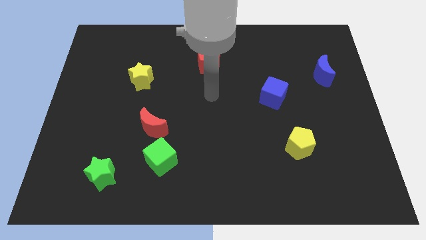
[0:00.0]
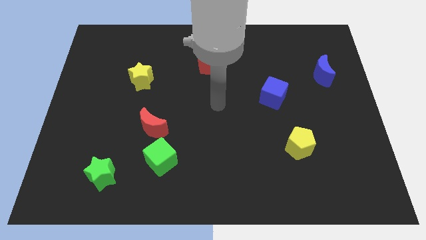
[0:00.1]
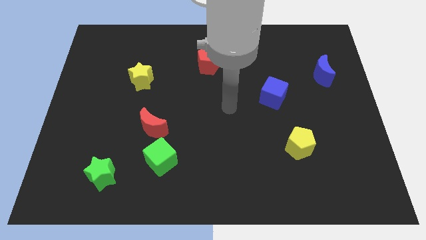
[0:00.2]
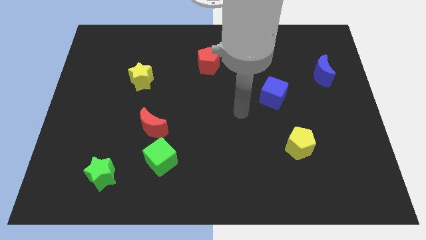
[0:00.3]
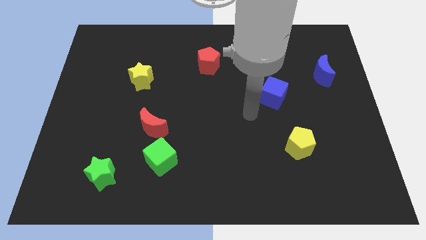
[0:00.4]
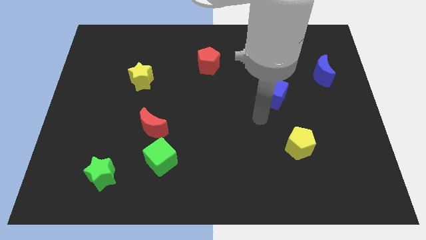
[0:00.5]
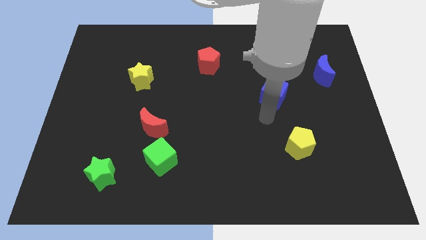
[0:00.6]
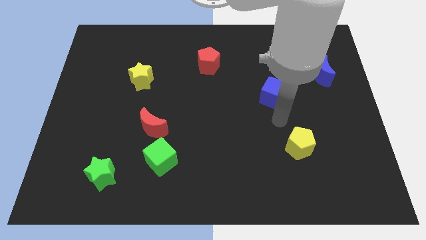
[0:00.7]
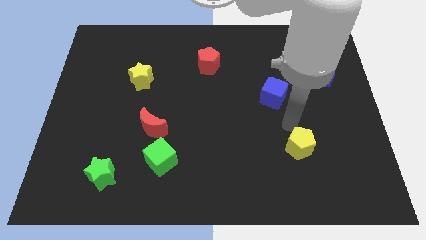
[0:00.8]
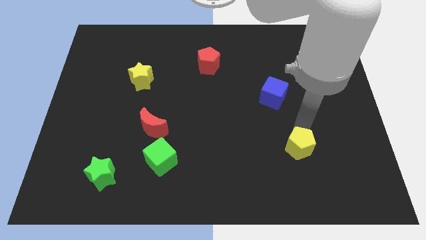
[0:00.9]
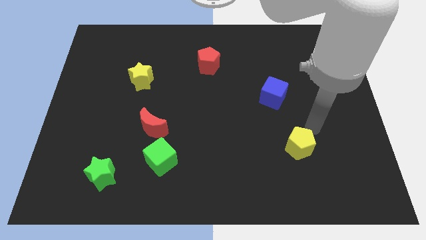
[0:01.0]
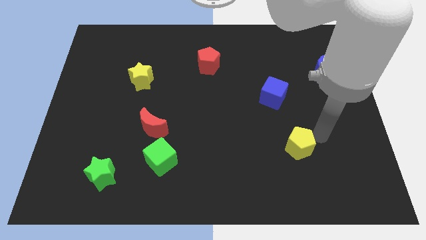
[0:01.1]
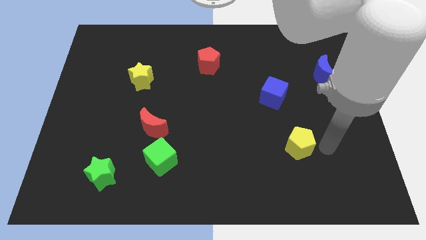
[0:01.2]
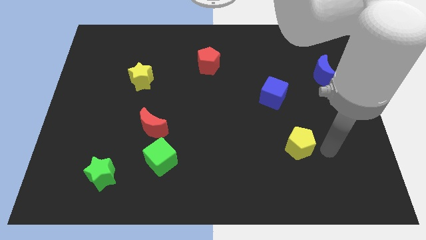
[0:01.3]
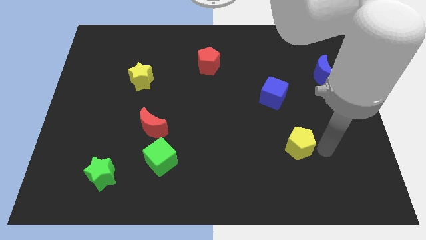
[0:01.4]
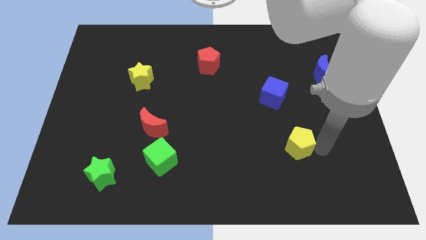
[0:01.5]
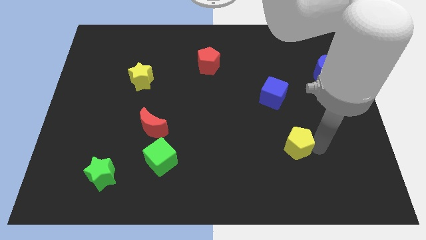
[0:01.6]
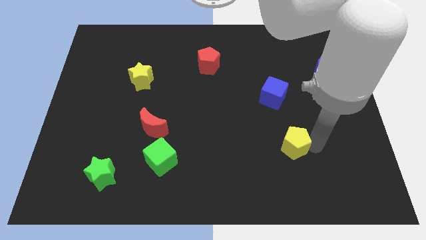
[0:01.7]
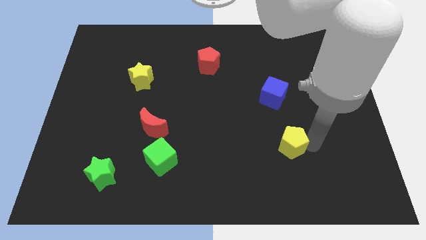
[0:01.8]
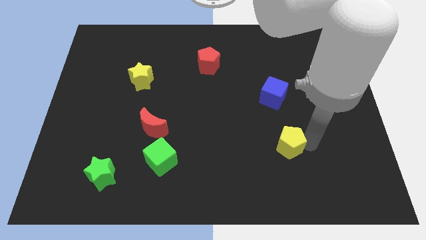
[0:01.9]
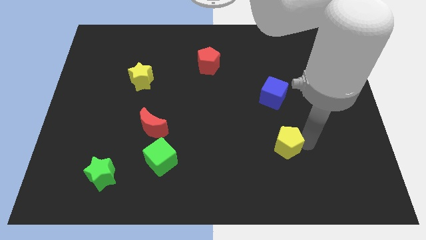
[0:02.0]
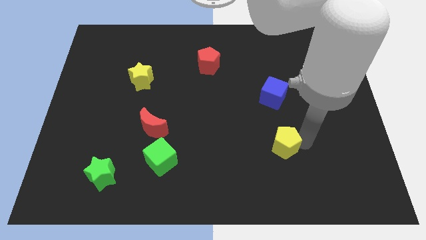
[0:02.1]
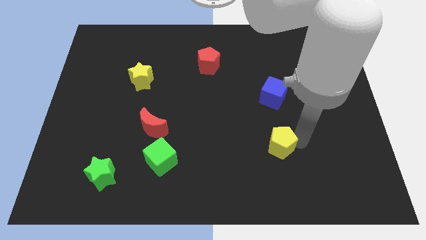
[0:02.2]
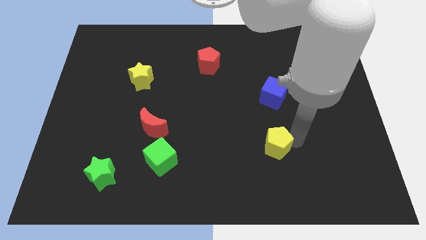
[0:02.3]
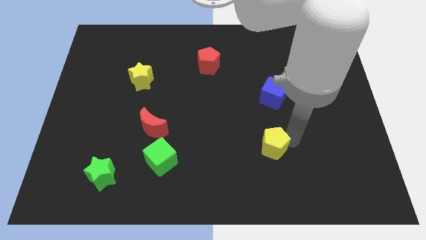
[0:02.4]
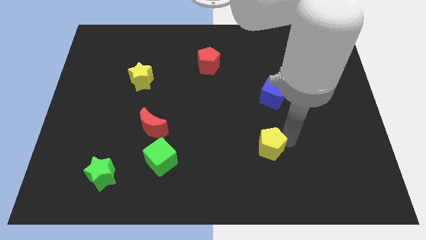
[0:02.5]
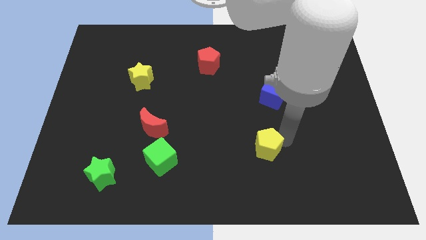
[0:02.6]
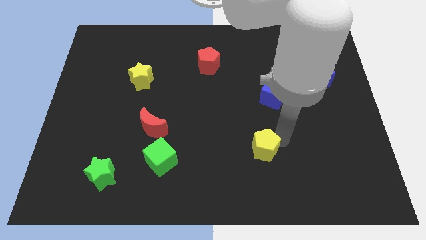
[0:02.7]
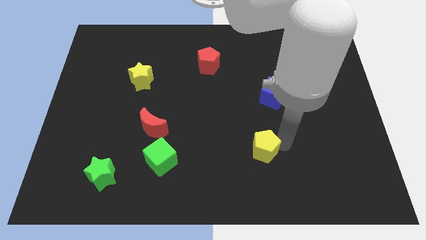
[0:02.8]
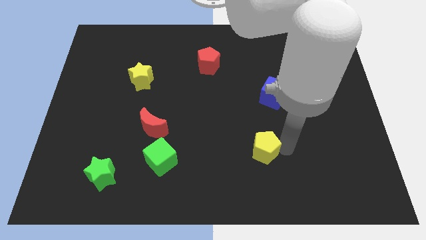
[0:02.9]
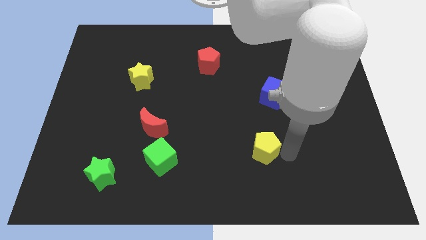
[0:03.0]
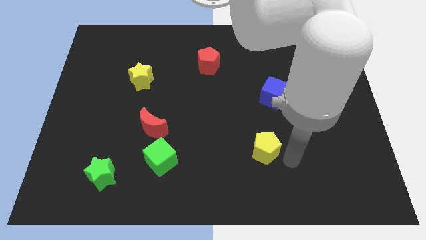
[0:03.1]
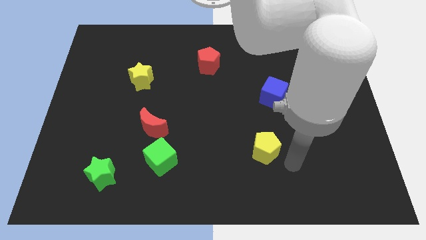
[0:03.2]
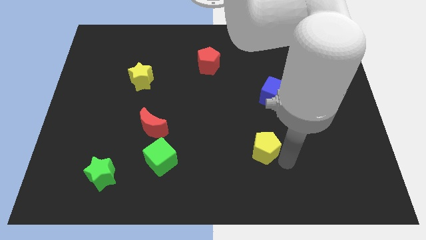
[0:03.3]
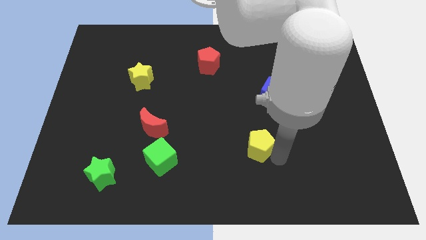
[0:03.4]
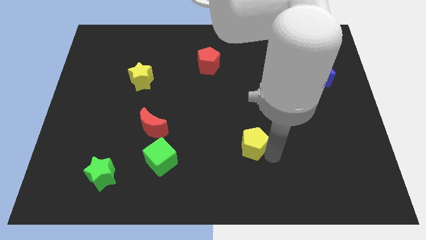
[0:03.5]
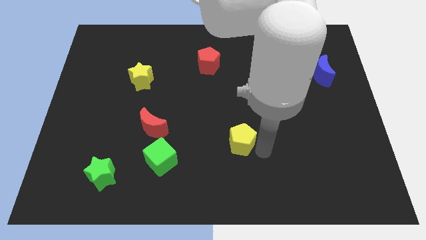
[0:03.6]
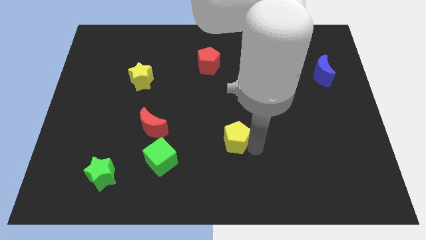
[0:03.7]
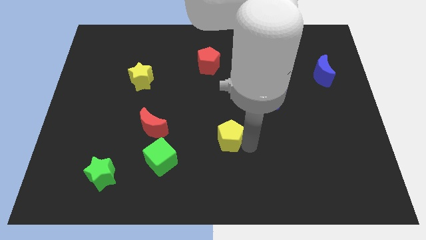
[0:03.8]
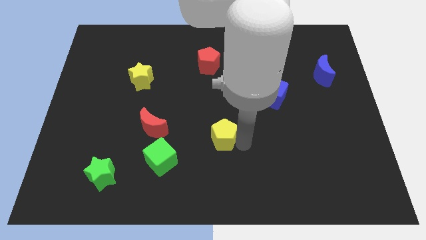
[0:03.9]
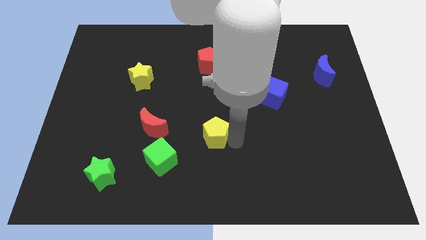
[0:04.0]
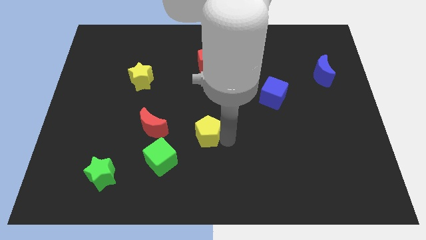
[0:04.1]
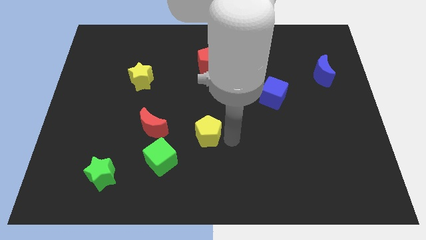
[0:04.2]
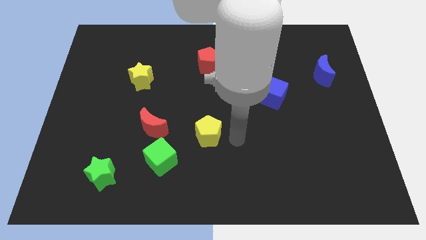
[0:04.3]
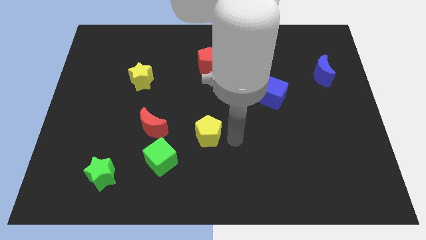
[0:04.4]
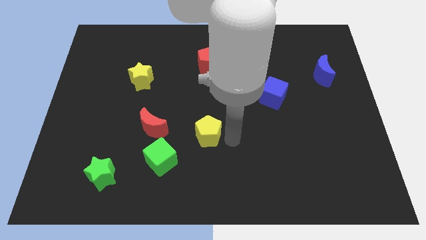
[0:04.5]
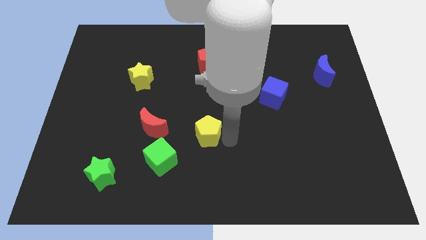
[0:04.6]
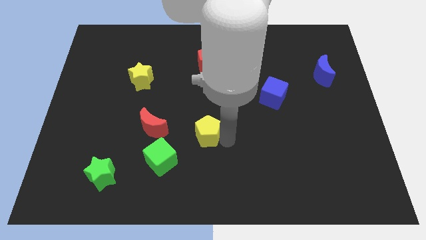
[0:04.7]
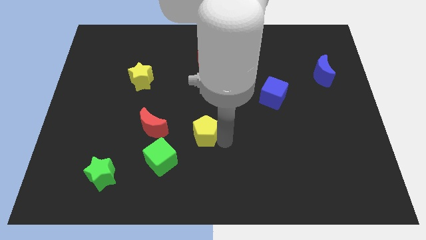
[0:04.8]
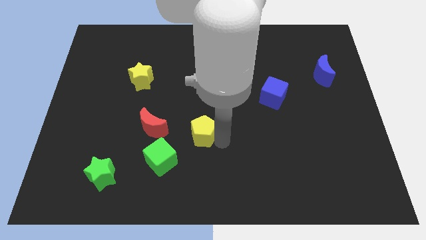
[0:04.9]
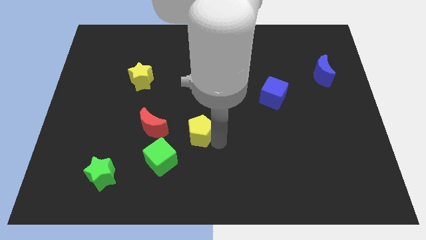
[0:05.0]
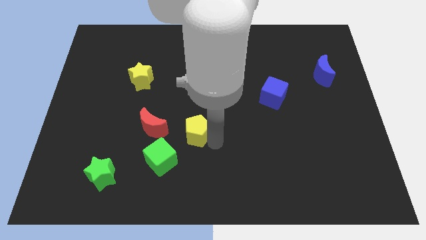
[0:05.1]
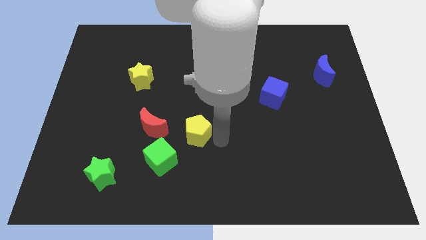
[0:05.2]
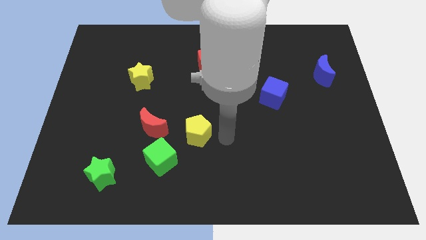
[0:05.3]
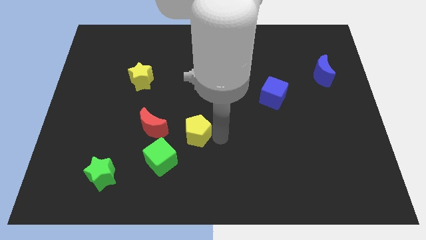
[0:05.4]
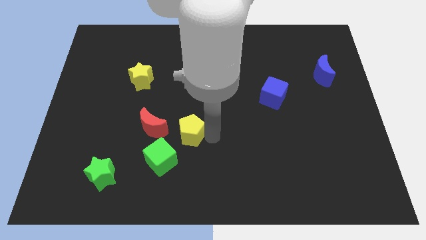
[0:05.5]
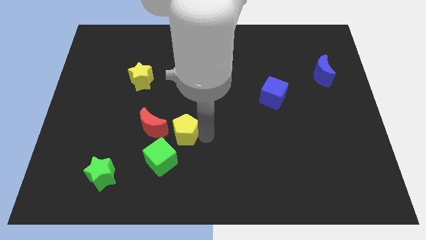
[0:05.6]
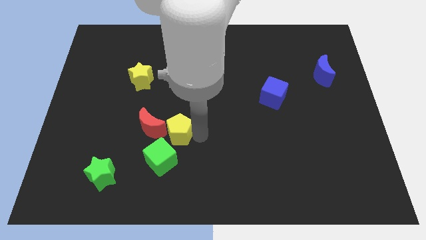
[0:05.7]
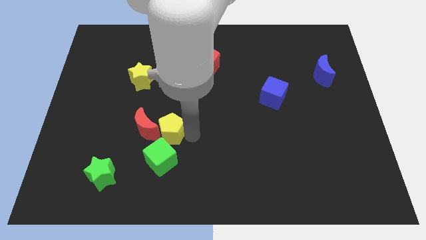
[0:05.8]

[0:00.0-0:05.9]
put the yellow pentagon to the red moon

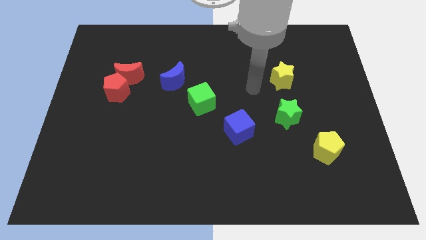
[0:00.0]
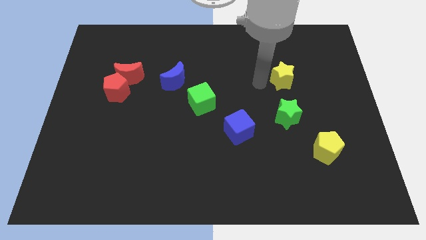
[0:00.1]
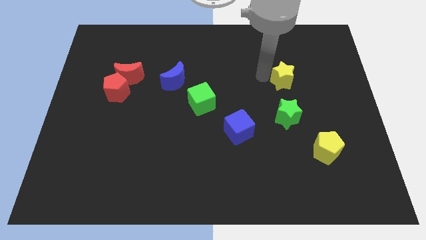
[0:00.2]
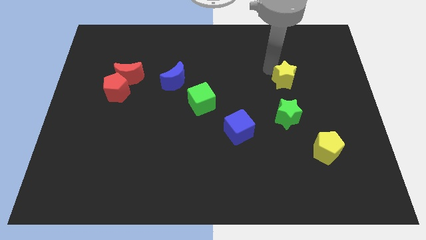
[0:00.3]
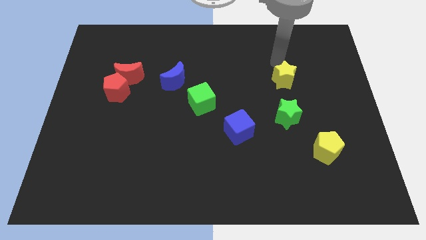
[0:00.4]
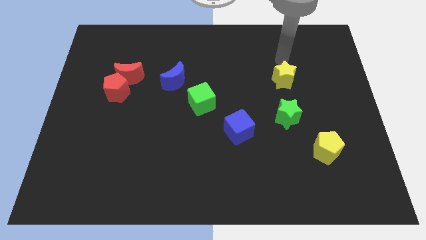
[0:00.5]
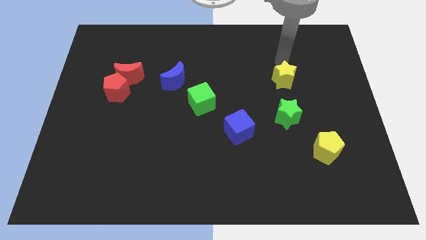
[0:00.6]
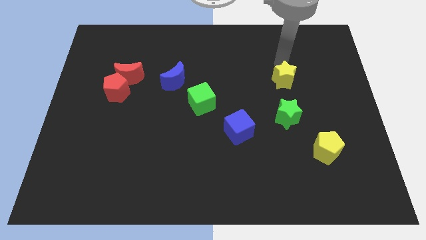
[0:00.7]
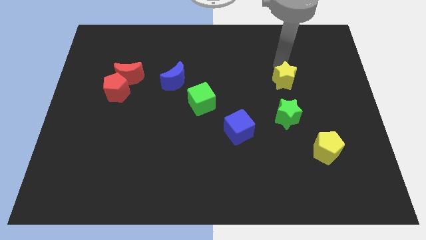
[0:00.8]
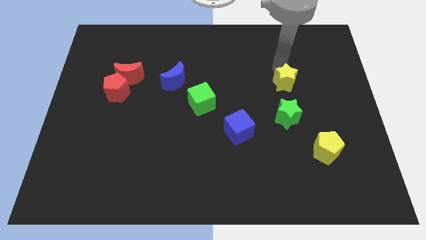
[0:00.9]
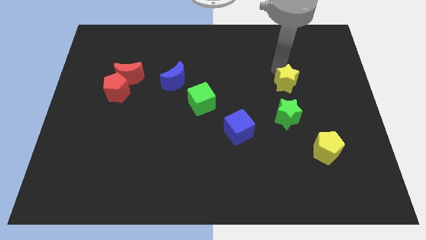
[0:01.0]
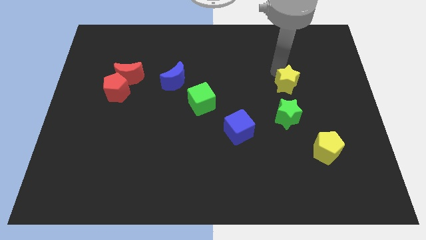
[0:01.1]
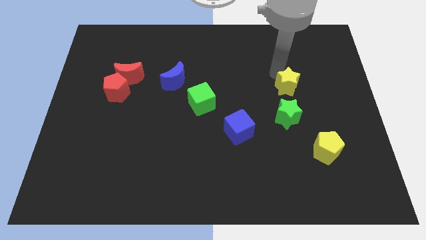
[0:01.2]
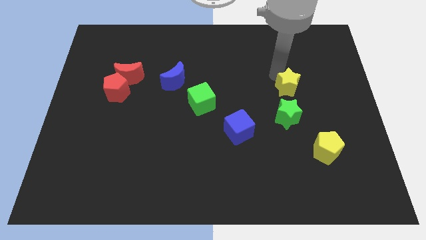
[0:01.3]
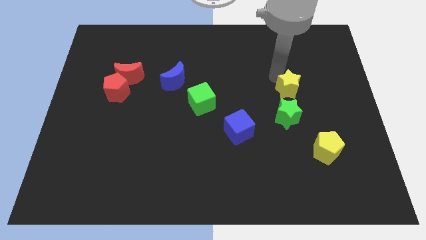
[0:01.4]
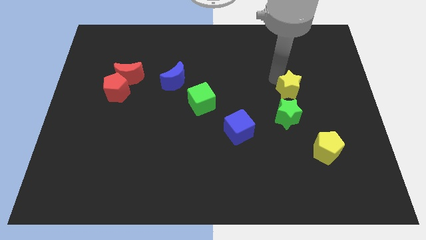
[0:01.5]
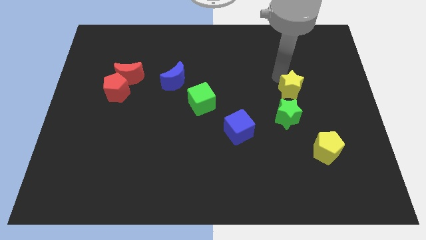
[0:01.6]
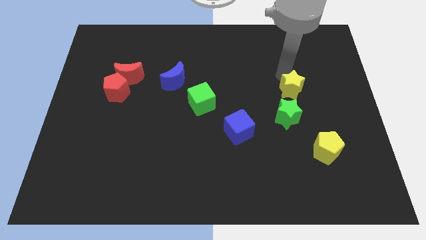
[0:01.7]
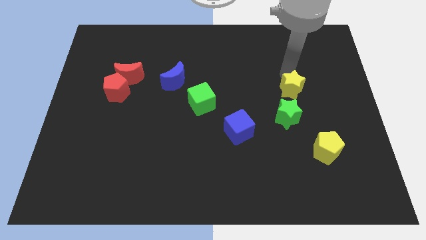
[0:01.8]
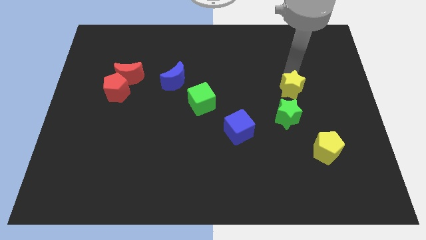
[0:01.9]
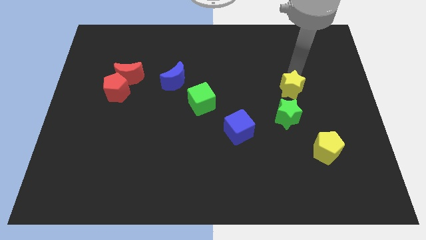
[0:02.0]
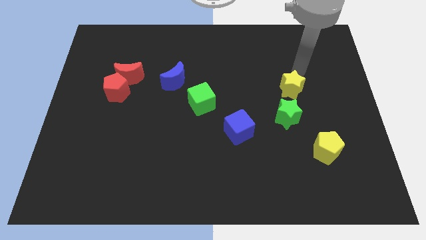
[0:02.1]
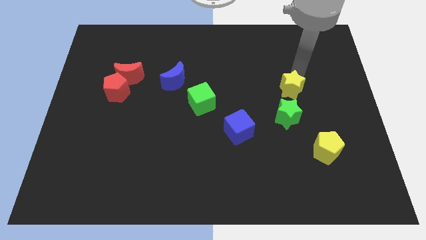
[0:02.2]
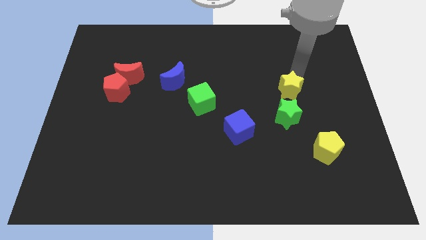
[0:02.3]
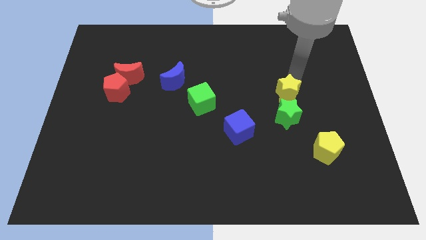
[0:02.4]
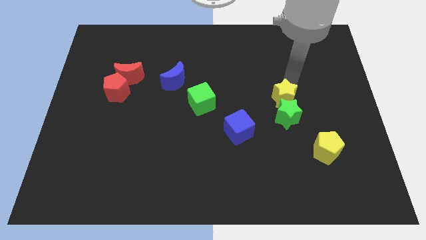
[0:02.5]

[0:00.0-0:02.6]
push the yellow star to the green star
